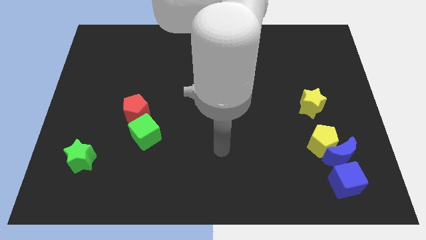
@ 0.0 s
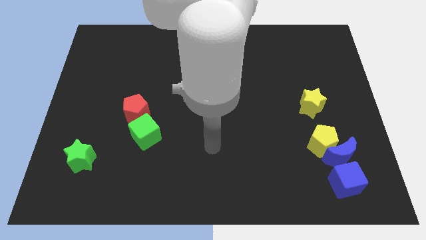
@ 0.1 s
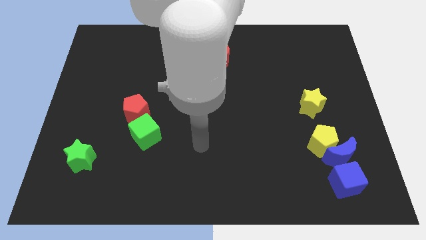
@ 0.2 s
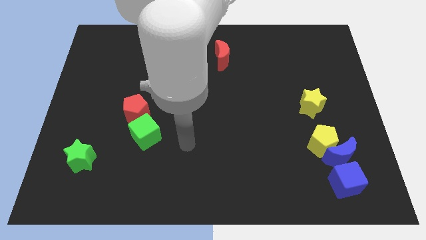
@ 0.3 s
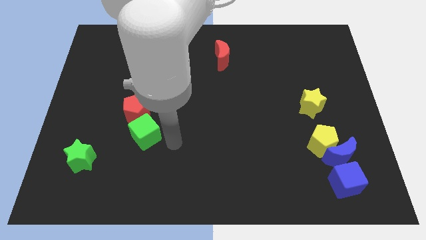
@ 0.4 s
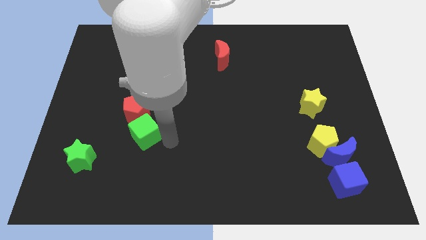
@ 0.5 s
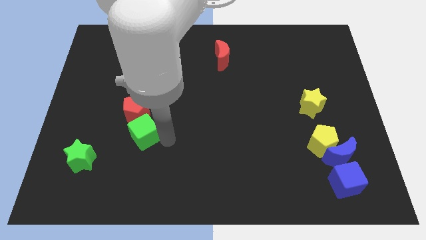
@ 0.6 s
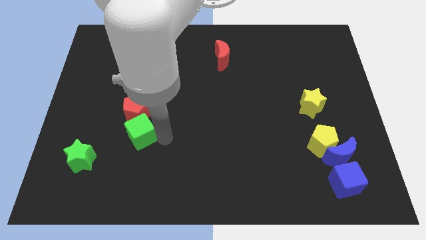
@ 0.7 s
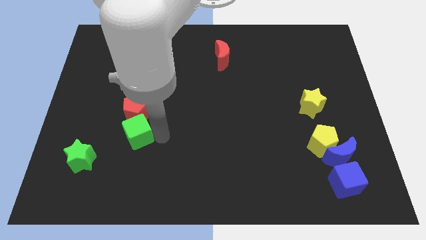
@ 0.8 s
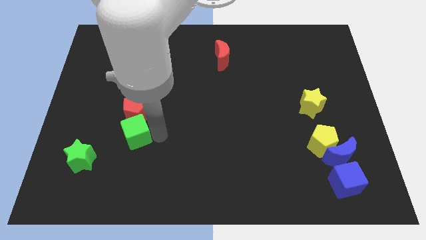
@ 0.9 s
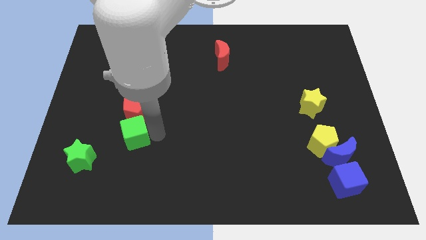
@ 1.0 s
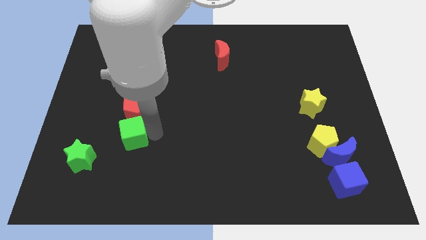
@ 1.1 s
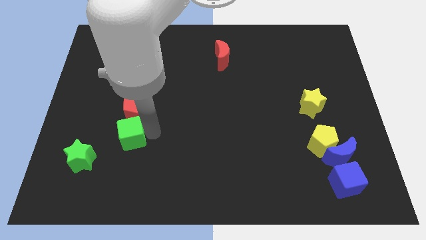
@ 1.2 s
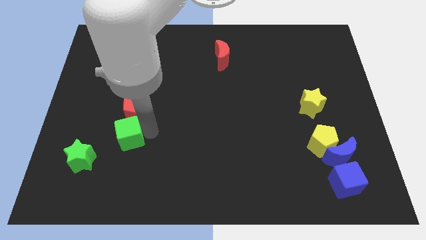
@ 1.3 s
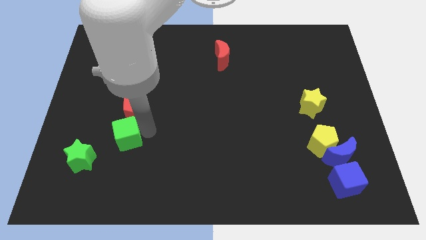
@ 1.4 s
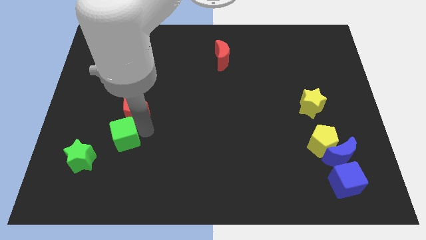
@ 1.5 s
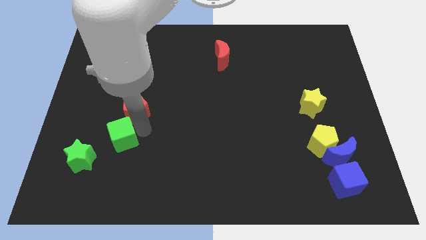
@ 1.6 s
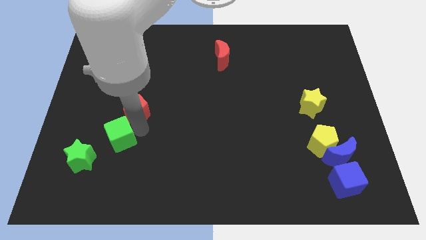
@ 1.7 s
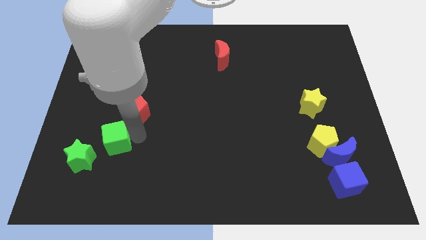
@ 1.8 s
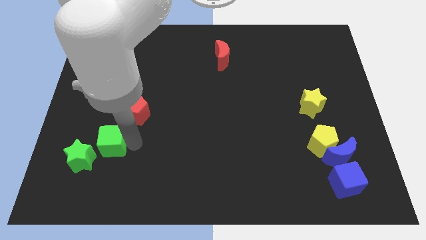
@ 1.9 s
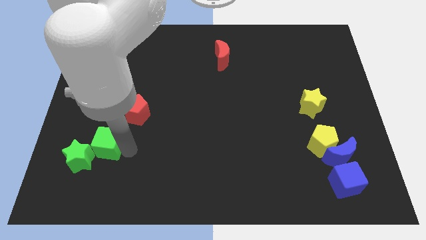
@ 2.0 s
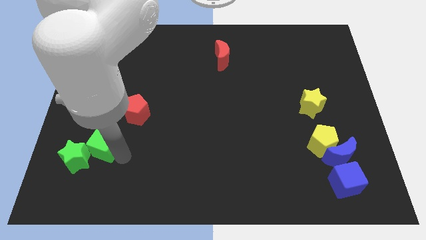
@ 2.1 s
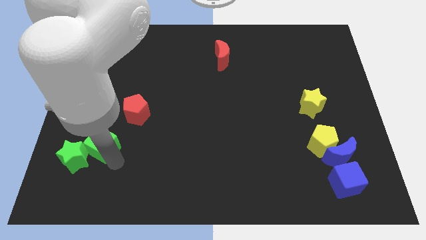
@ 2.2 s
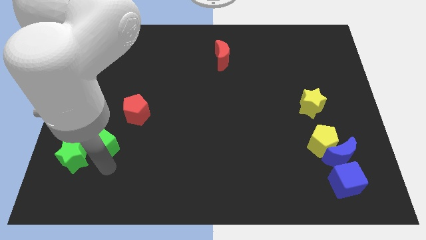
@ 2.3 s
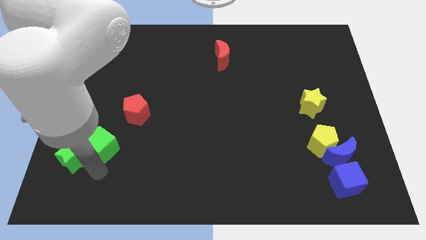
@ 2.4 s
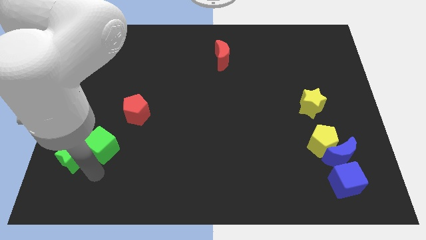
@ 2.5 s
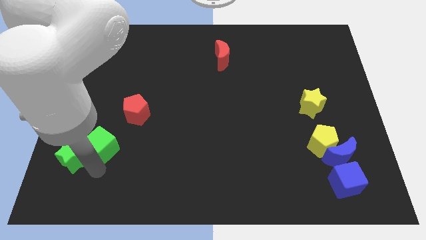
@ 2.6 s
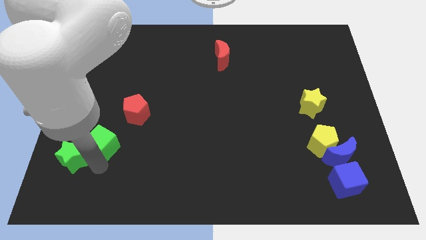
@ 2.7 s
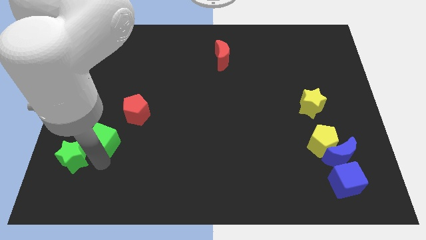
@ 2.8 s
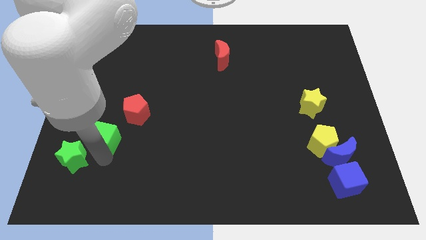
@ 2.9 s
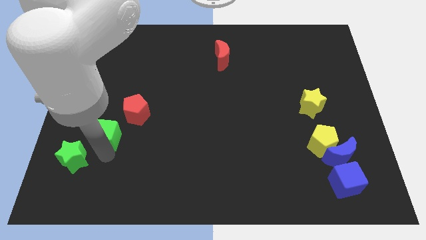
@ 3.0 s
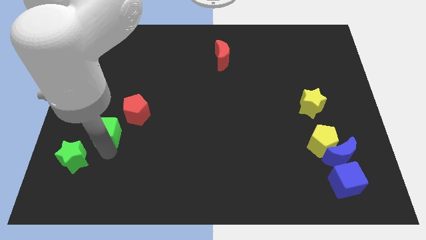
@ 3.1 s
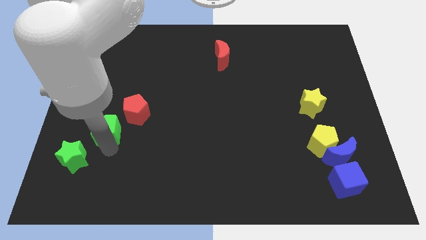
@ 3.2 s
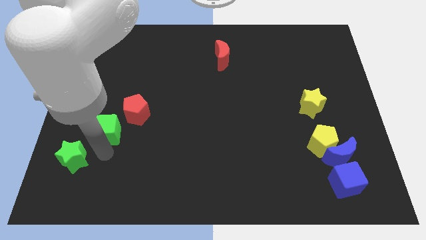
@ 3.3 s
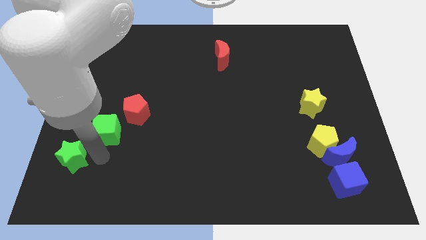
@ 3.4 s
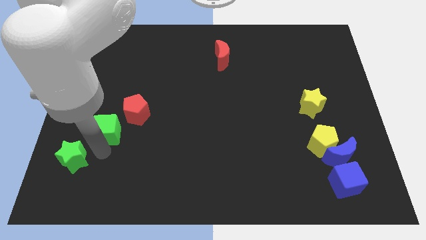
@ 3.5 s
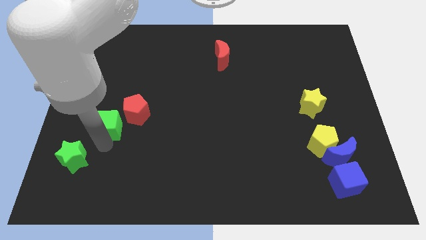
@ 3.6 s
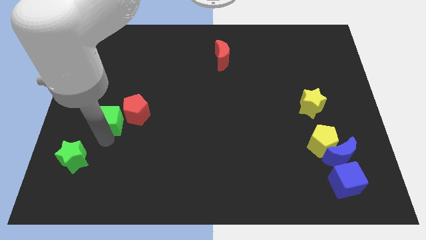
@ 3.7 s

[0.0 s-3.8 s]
push the green cube diagonally upwards and left a little

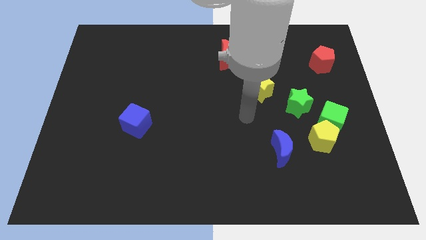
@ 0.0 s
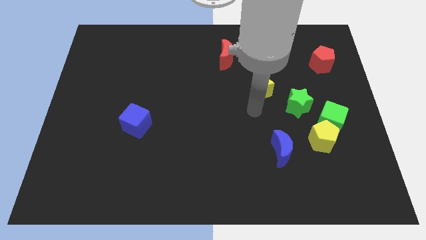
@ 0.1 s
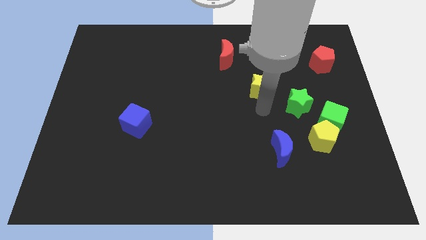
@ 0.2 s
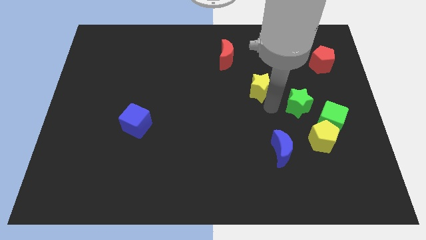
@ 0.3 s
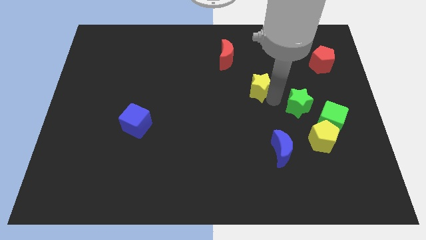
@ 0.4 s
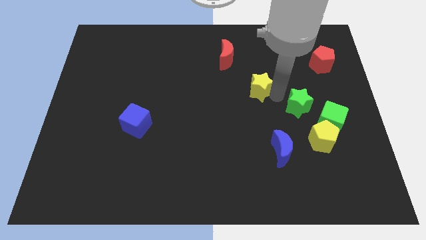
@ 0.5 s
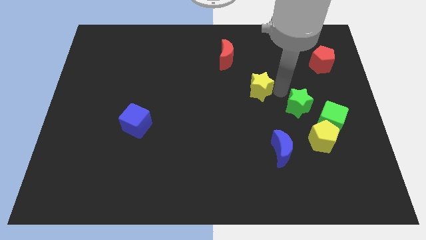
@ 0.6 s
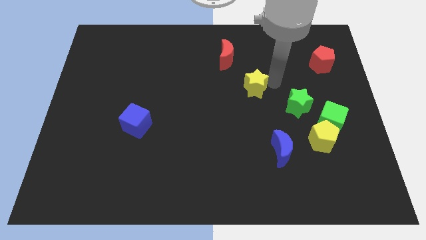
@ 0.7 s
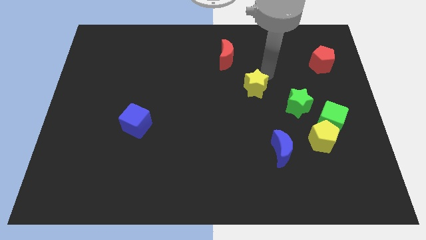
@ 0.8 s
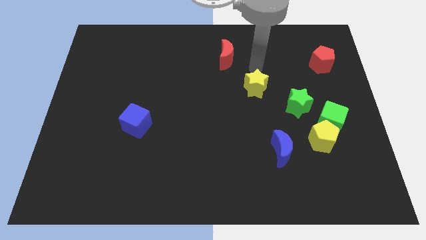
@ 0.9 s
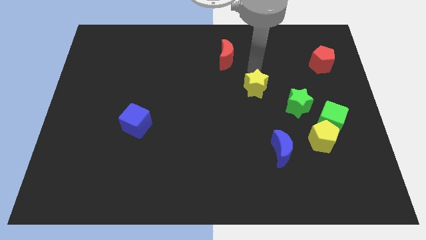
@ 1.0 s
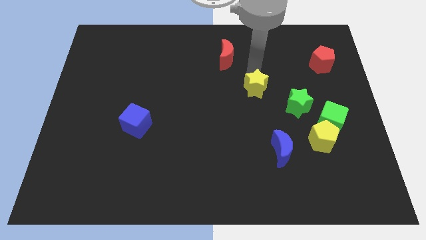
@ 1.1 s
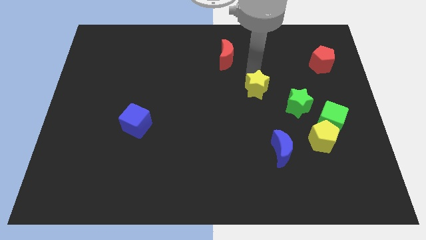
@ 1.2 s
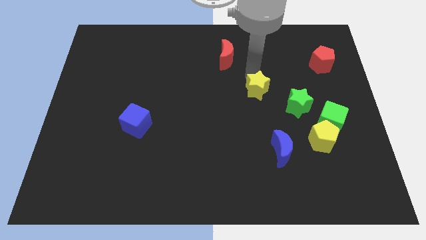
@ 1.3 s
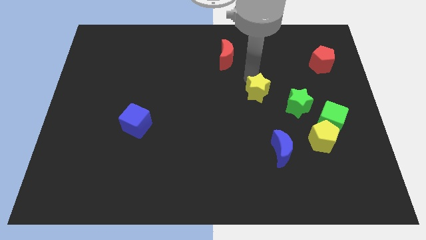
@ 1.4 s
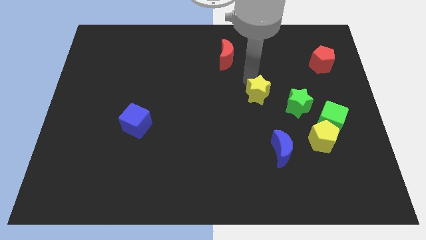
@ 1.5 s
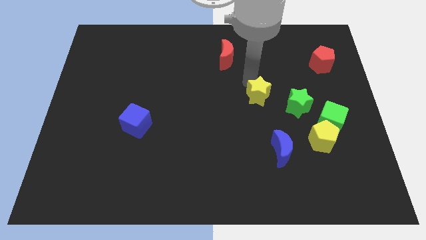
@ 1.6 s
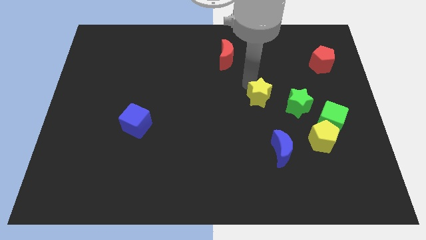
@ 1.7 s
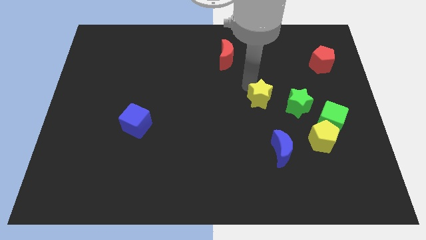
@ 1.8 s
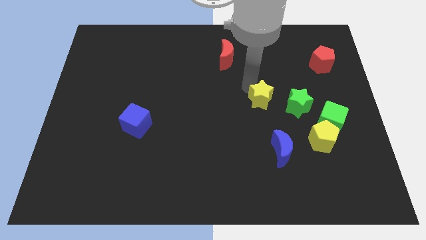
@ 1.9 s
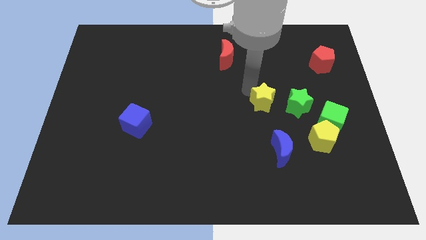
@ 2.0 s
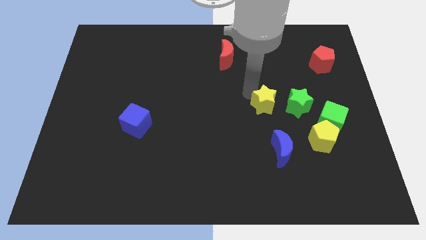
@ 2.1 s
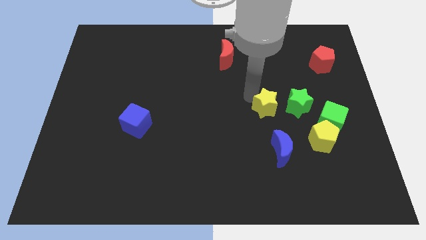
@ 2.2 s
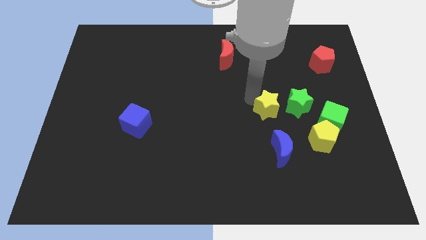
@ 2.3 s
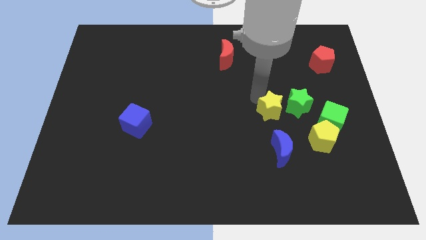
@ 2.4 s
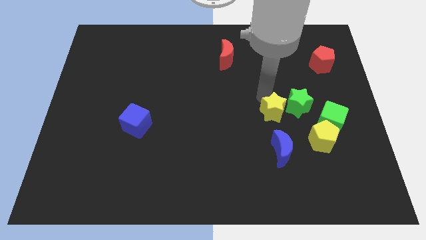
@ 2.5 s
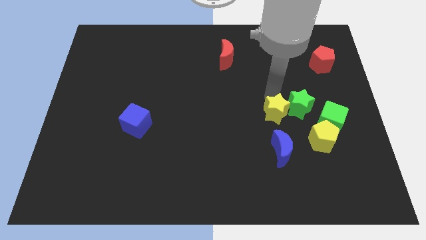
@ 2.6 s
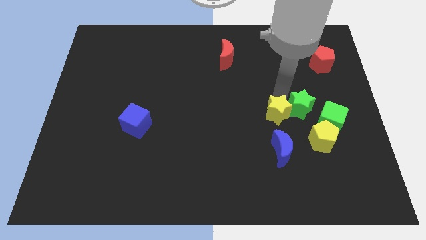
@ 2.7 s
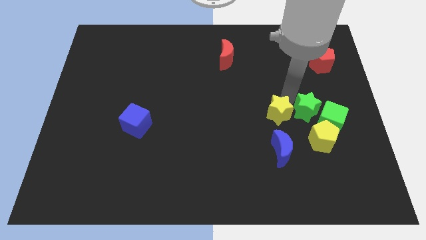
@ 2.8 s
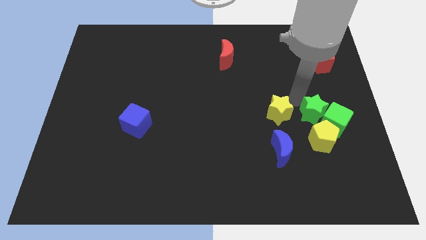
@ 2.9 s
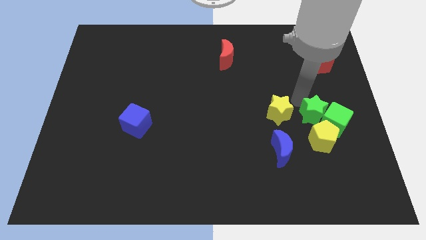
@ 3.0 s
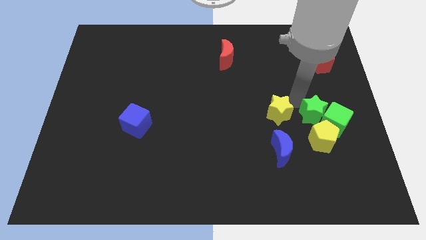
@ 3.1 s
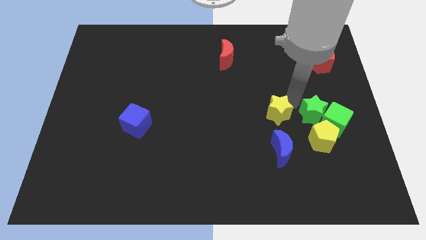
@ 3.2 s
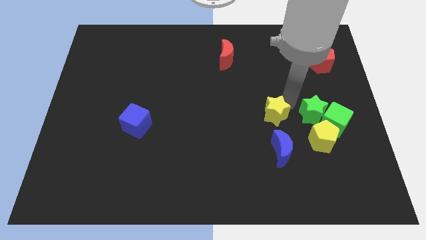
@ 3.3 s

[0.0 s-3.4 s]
move the yellow star down a little

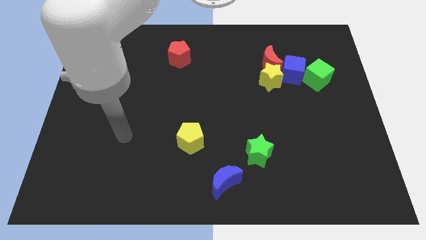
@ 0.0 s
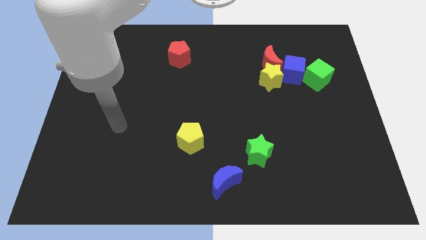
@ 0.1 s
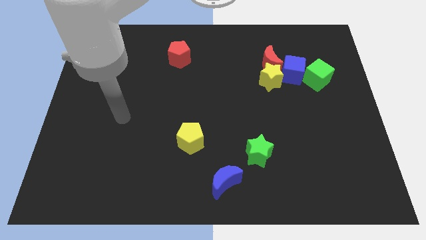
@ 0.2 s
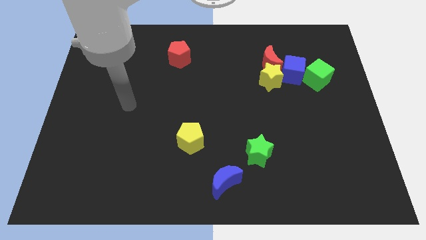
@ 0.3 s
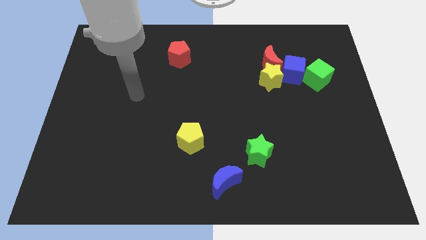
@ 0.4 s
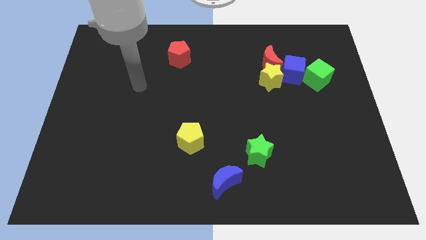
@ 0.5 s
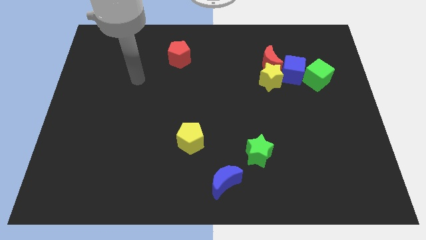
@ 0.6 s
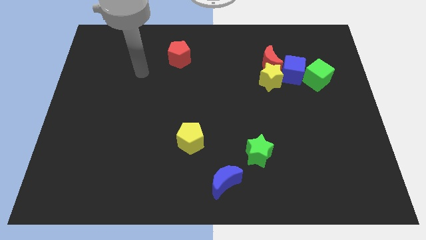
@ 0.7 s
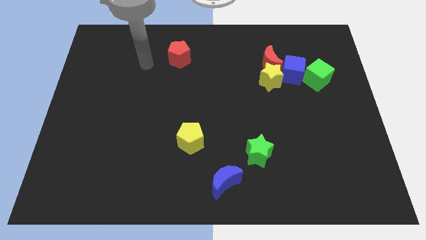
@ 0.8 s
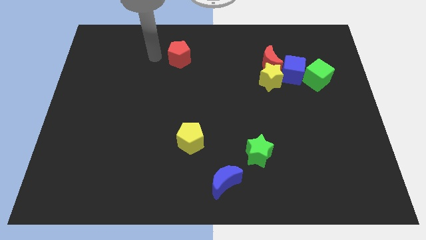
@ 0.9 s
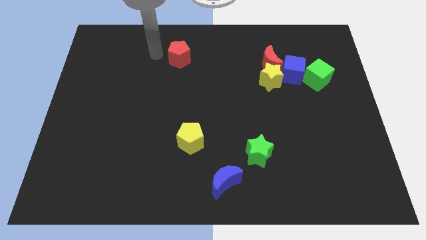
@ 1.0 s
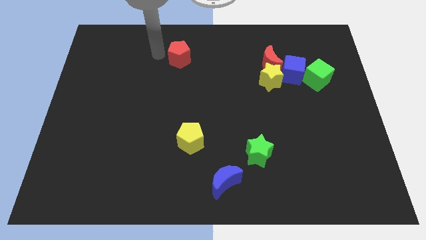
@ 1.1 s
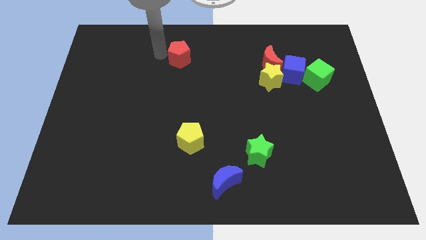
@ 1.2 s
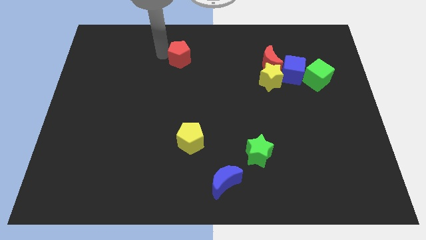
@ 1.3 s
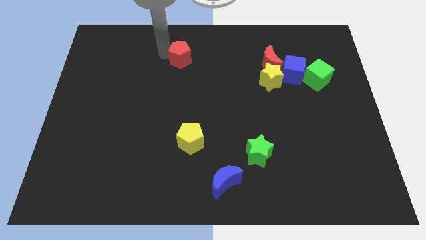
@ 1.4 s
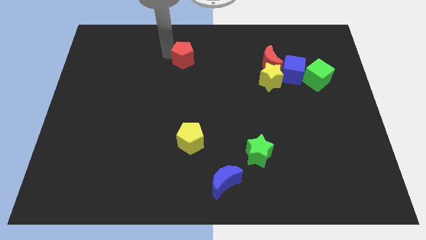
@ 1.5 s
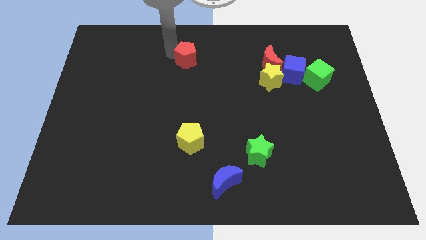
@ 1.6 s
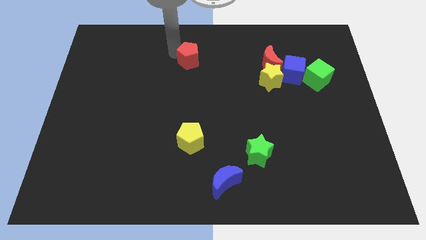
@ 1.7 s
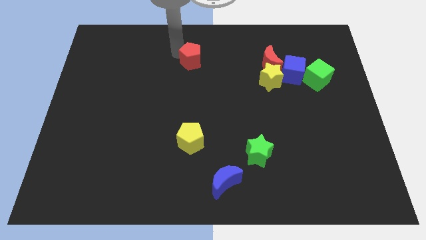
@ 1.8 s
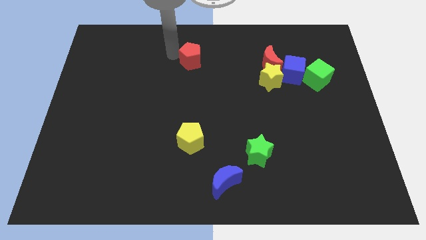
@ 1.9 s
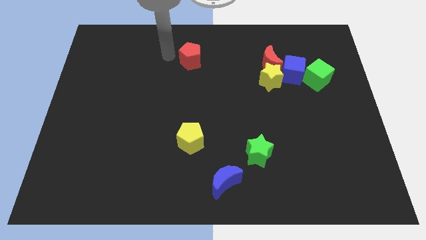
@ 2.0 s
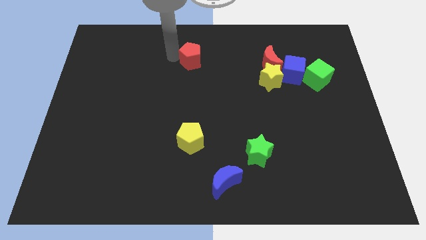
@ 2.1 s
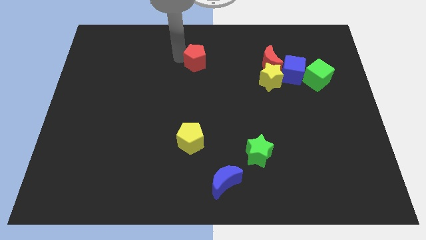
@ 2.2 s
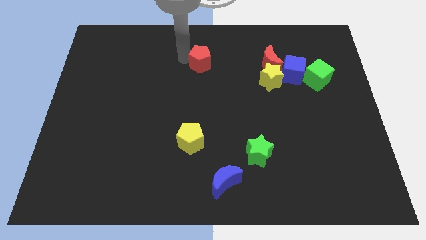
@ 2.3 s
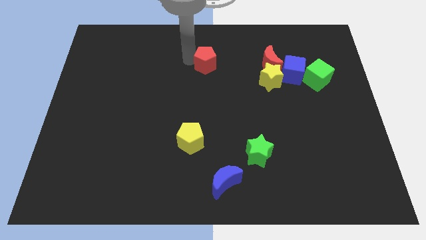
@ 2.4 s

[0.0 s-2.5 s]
move the red pentagon a bit to the right
